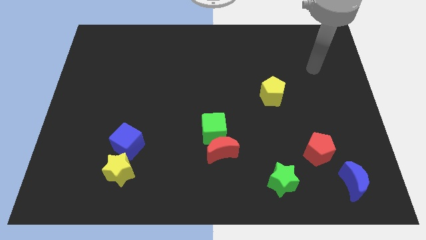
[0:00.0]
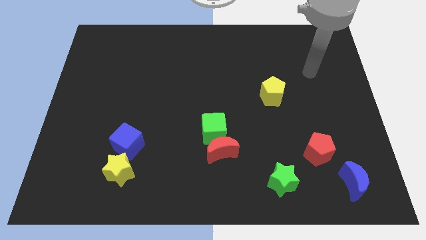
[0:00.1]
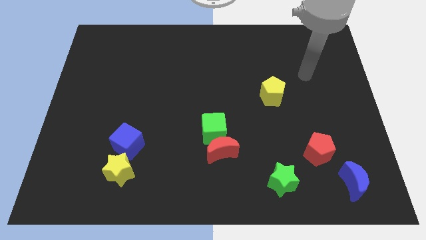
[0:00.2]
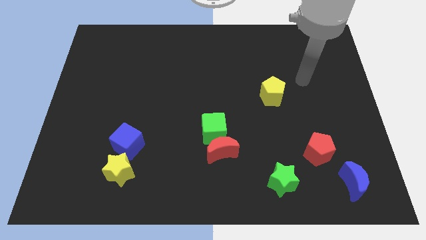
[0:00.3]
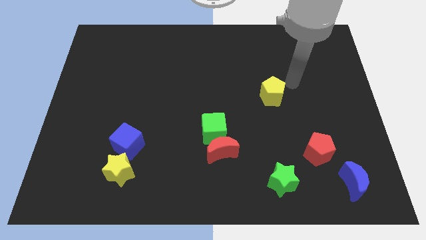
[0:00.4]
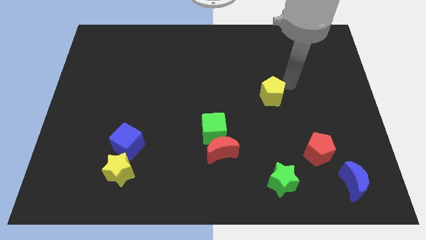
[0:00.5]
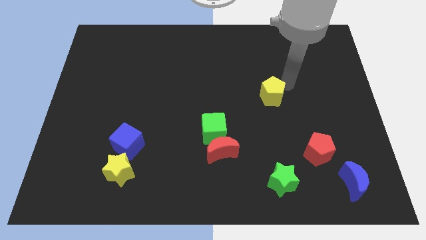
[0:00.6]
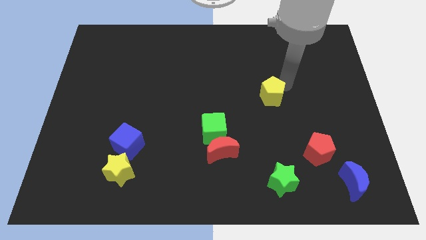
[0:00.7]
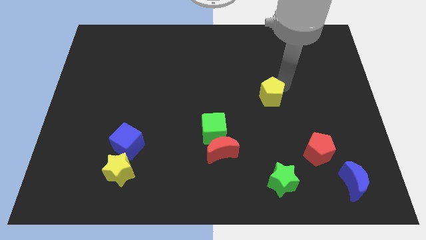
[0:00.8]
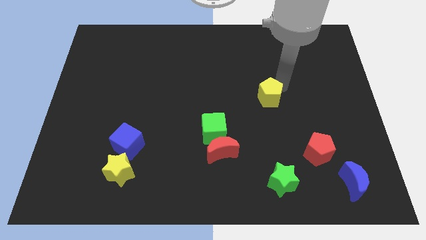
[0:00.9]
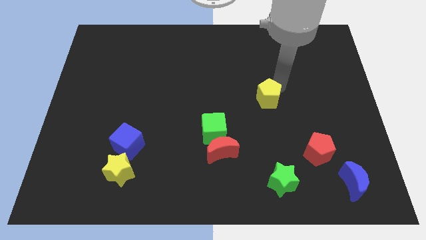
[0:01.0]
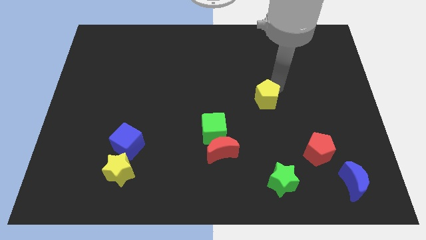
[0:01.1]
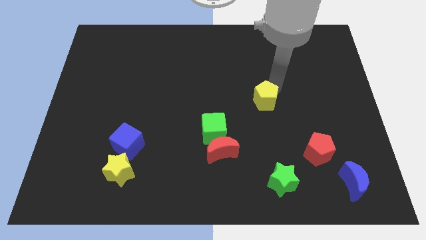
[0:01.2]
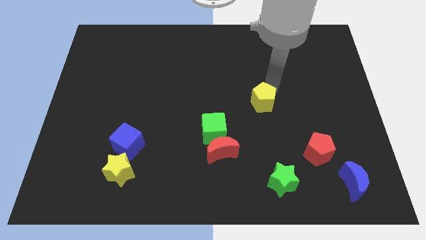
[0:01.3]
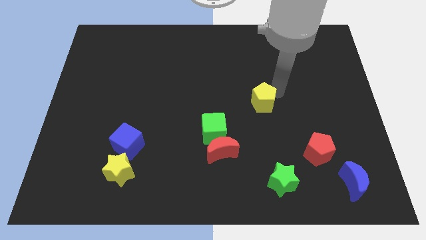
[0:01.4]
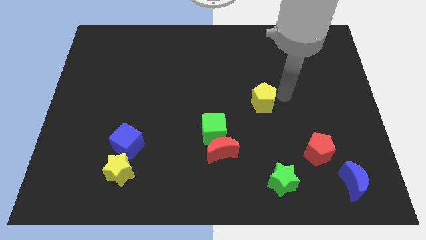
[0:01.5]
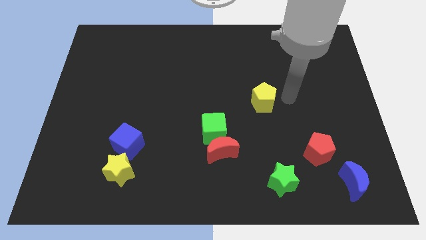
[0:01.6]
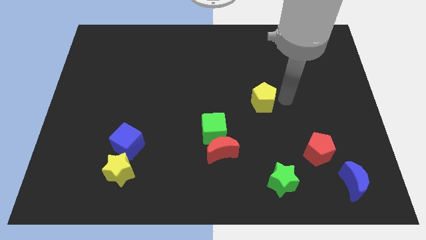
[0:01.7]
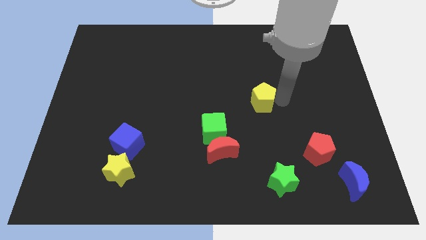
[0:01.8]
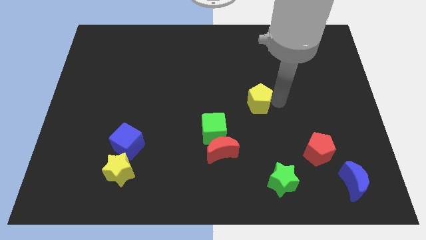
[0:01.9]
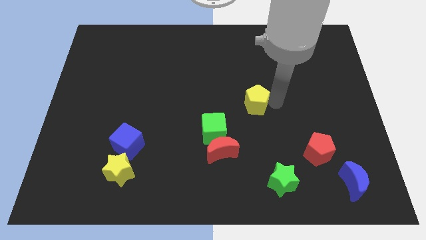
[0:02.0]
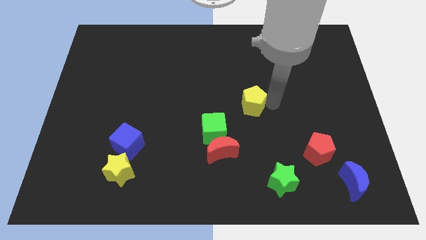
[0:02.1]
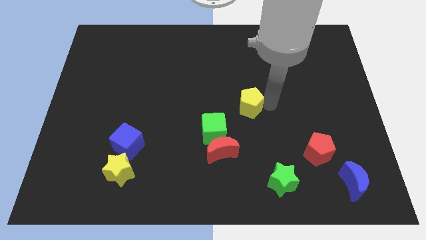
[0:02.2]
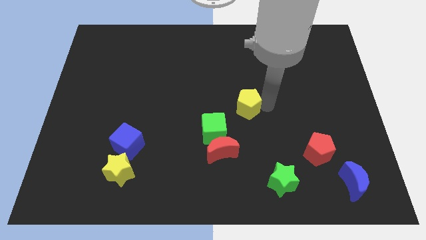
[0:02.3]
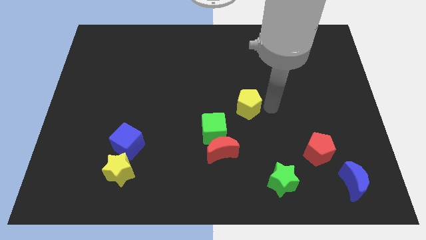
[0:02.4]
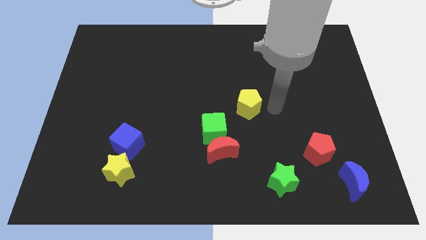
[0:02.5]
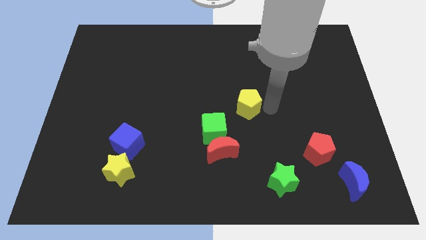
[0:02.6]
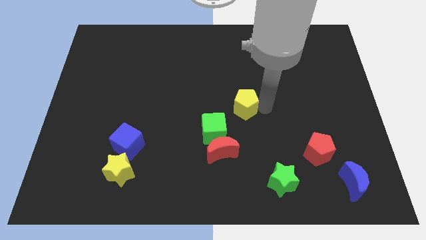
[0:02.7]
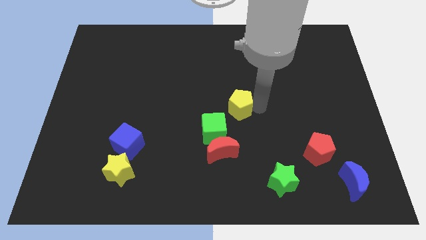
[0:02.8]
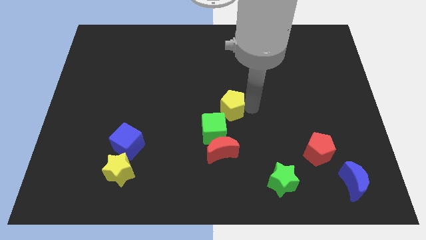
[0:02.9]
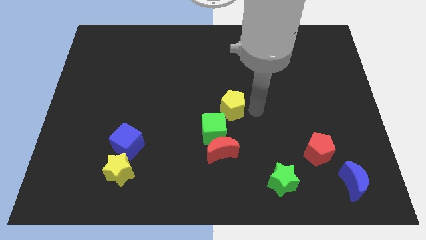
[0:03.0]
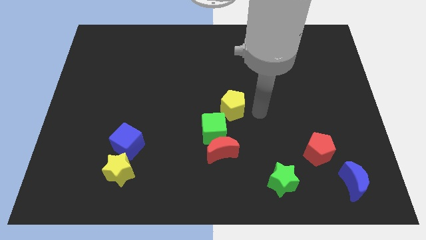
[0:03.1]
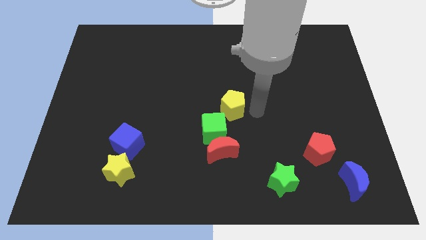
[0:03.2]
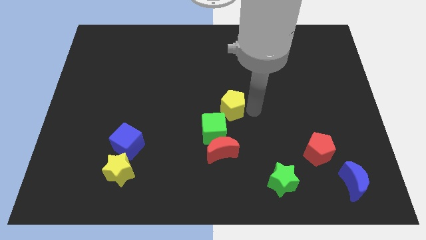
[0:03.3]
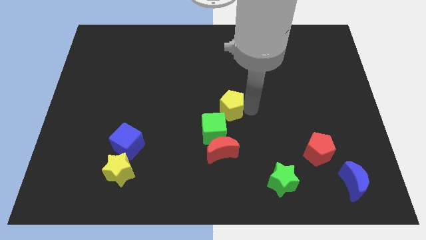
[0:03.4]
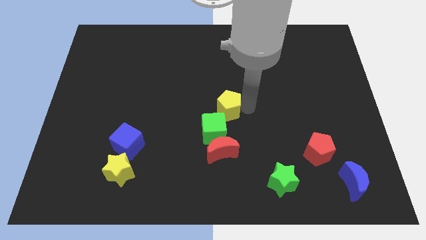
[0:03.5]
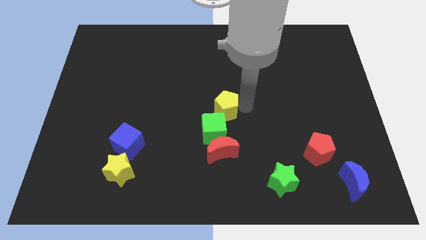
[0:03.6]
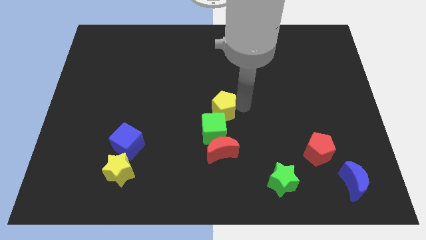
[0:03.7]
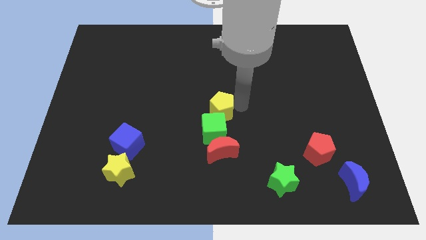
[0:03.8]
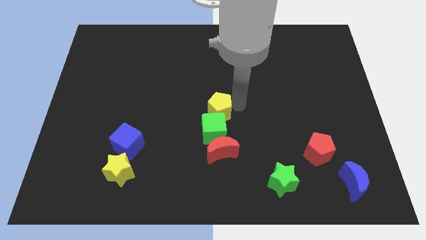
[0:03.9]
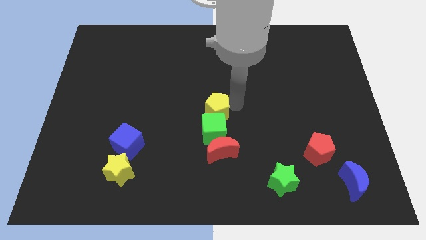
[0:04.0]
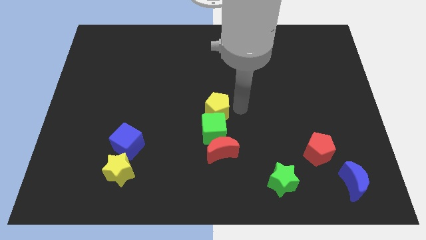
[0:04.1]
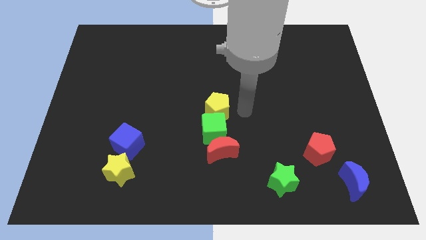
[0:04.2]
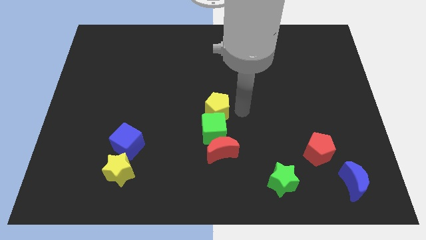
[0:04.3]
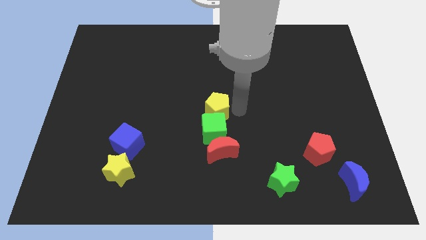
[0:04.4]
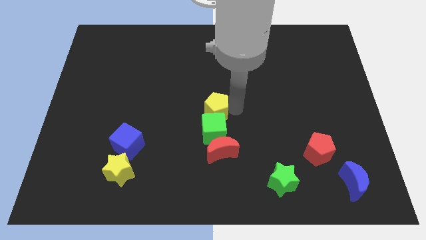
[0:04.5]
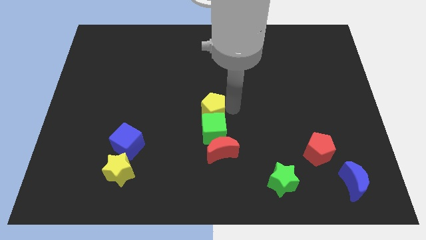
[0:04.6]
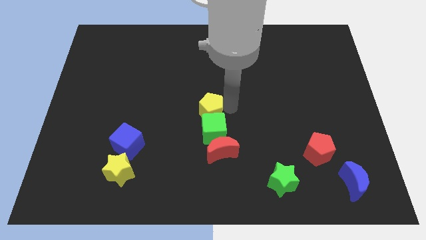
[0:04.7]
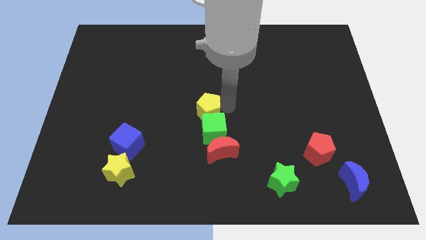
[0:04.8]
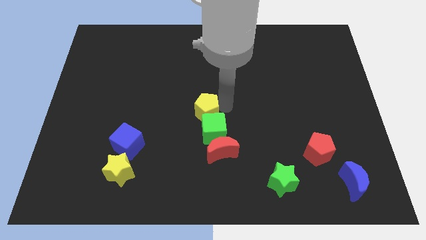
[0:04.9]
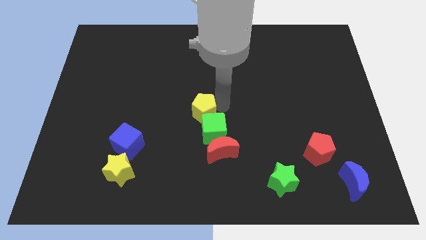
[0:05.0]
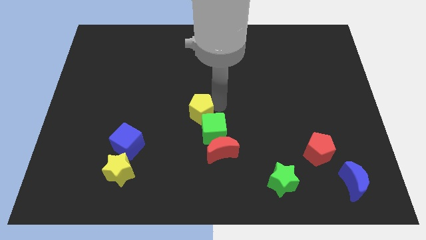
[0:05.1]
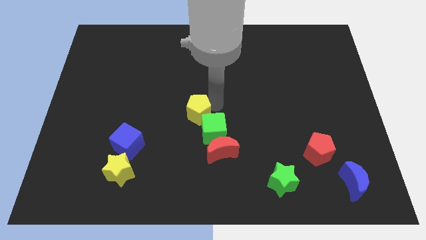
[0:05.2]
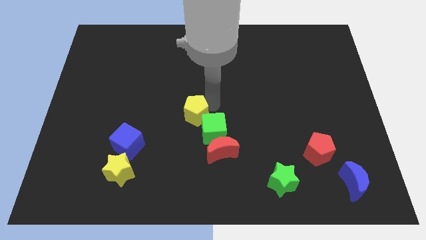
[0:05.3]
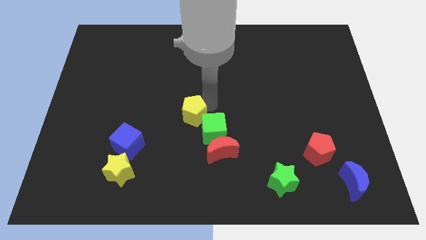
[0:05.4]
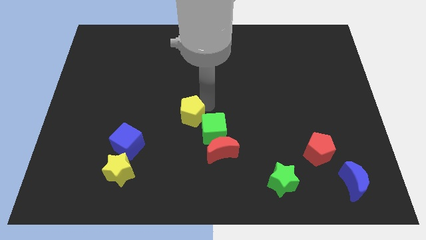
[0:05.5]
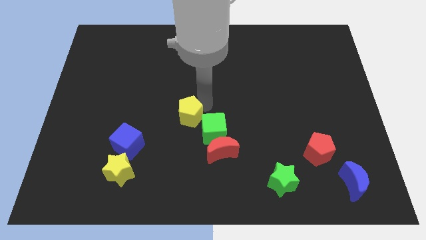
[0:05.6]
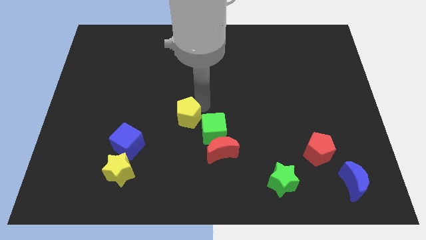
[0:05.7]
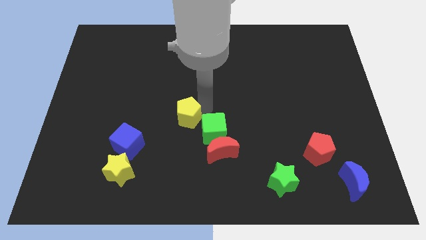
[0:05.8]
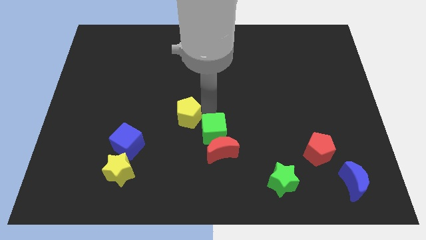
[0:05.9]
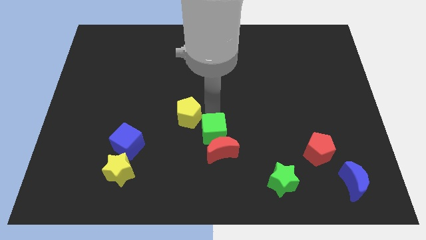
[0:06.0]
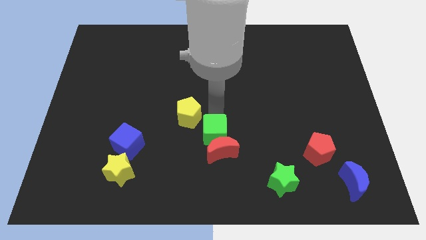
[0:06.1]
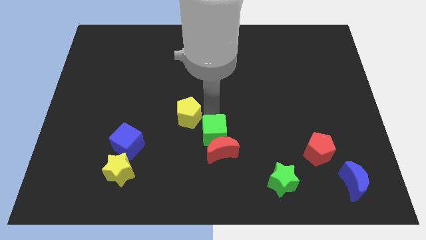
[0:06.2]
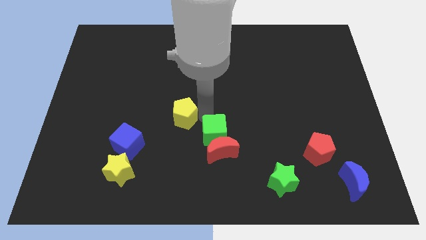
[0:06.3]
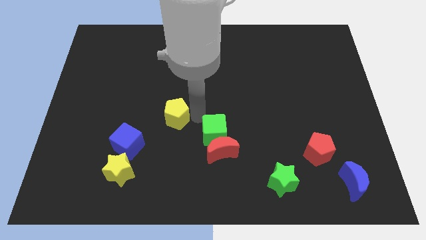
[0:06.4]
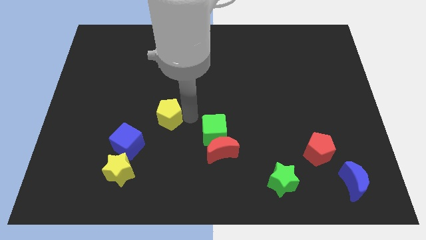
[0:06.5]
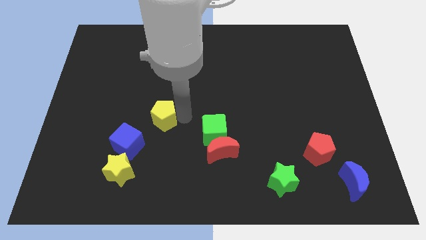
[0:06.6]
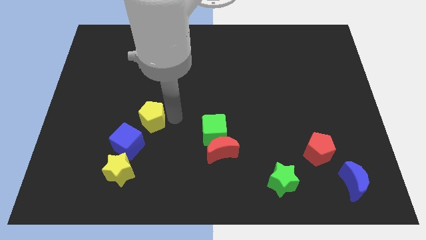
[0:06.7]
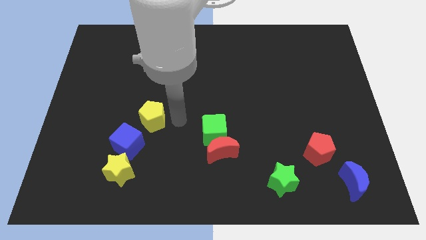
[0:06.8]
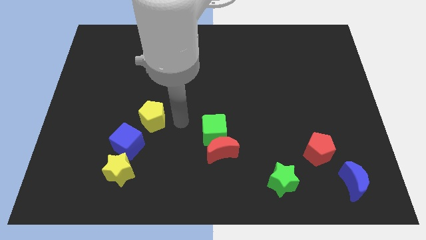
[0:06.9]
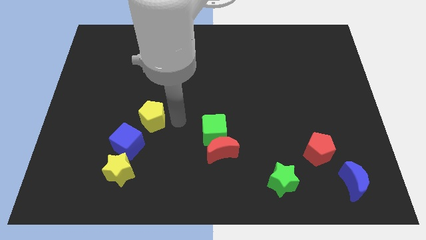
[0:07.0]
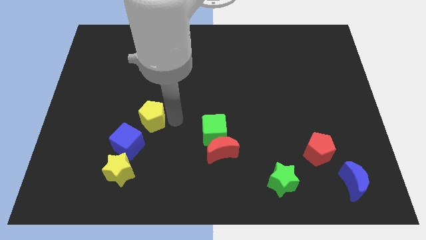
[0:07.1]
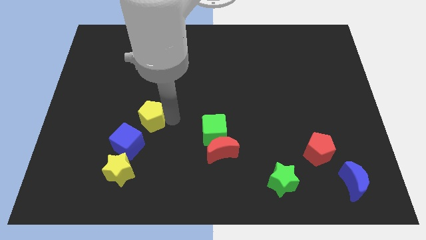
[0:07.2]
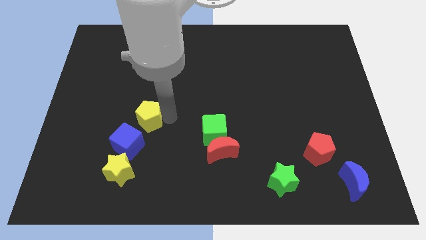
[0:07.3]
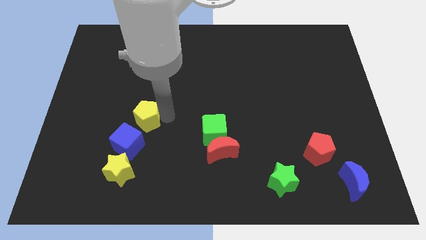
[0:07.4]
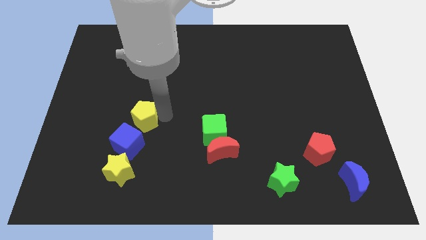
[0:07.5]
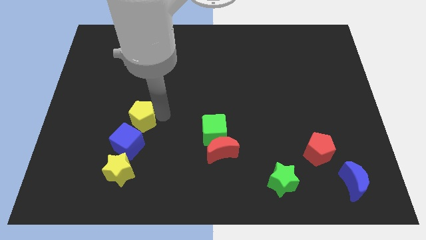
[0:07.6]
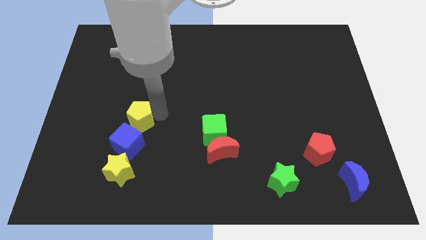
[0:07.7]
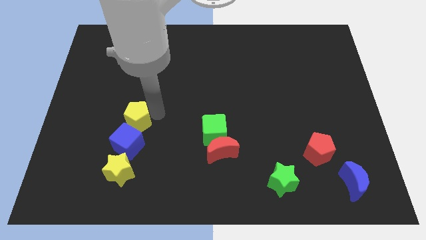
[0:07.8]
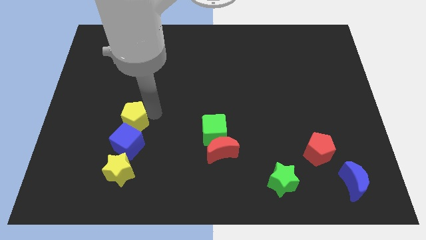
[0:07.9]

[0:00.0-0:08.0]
slide the yellow pentagon diagonally up and to the left of the blue cube
